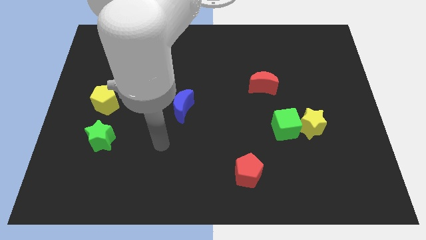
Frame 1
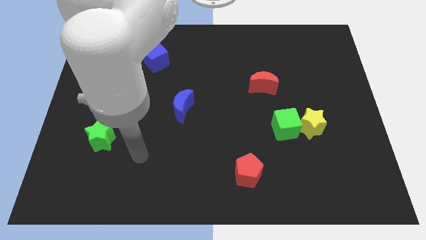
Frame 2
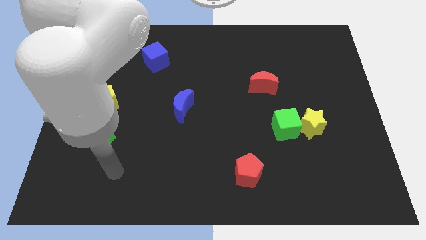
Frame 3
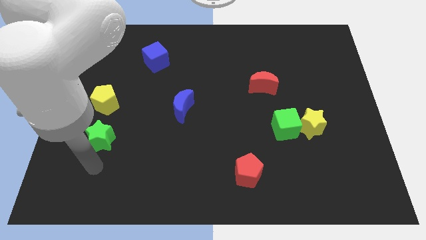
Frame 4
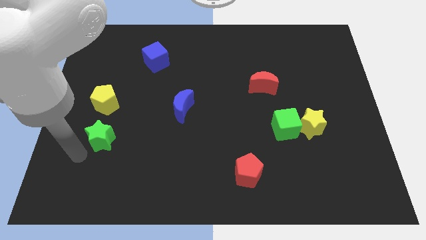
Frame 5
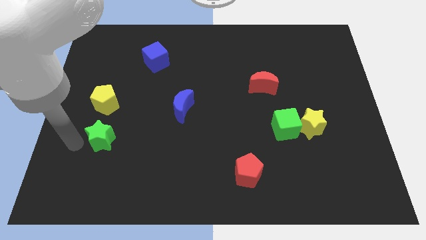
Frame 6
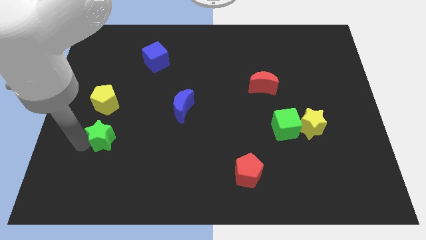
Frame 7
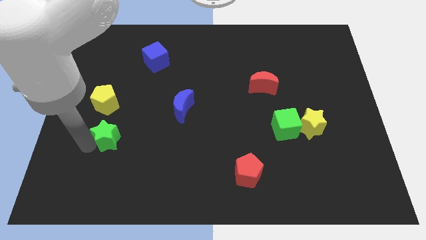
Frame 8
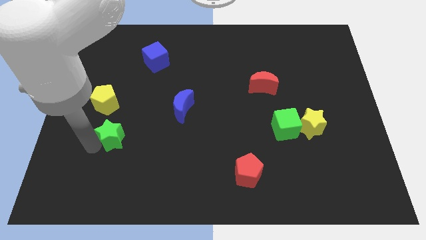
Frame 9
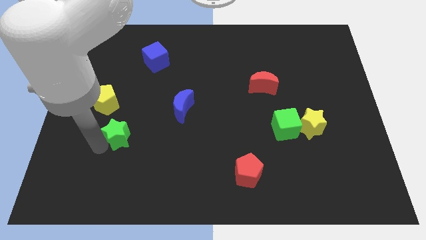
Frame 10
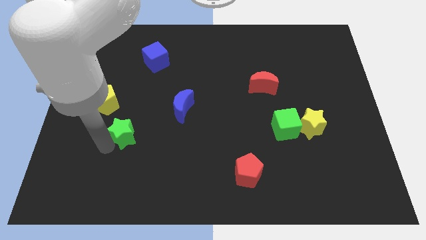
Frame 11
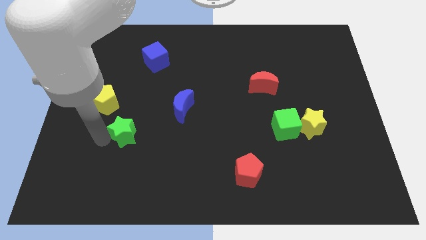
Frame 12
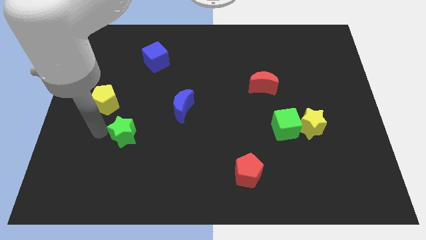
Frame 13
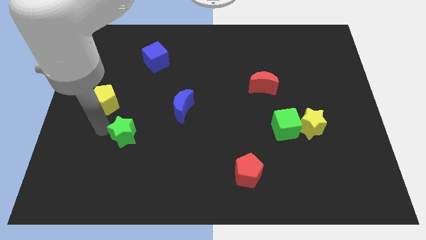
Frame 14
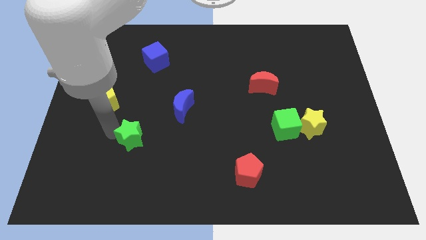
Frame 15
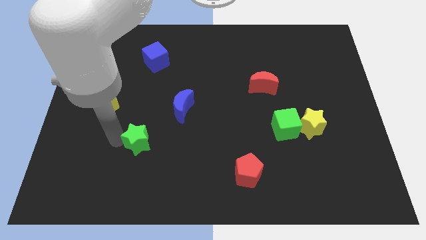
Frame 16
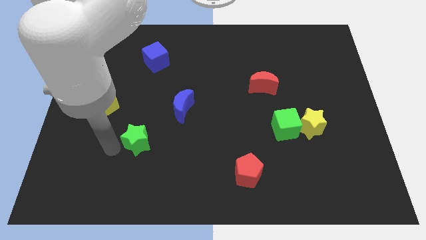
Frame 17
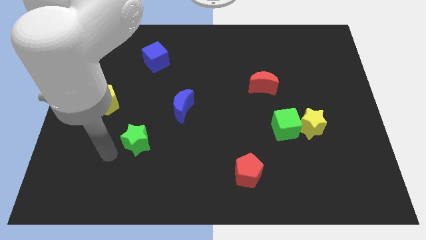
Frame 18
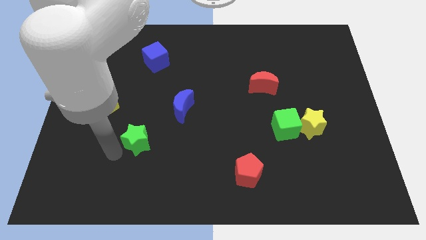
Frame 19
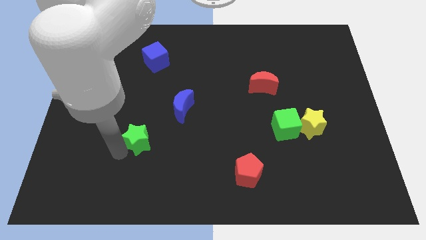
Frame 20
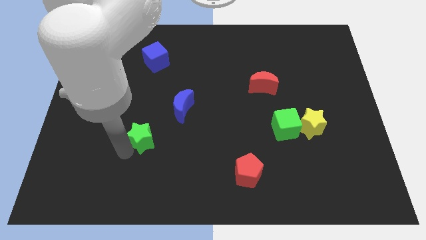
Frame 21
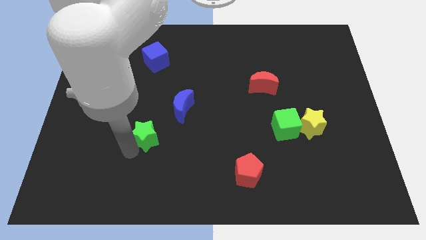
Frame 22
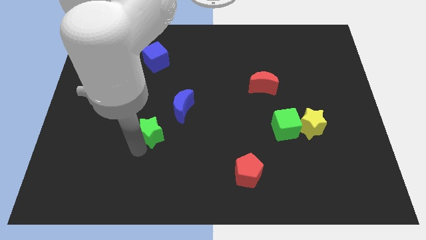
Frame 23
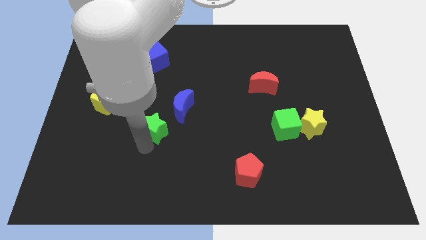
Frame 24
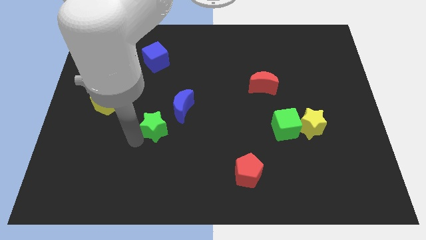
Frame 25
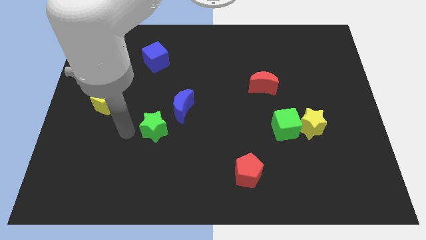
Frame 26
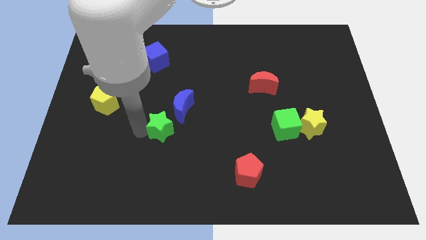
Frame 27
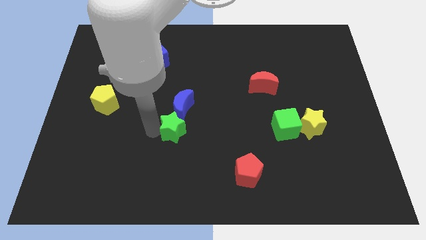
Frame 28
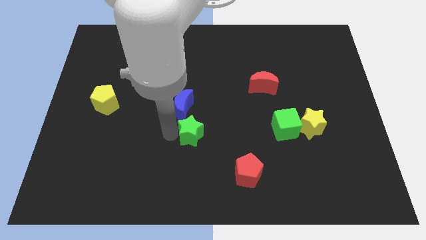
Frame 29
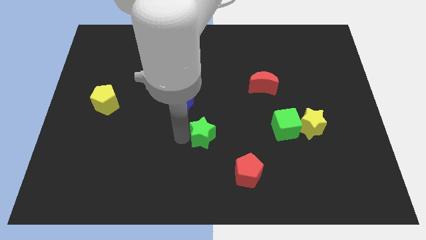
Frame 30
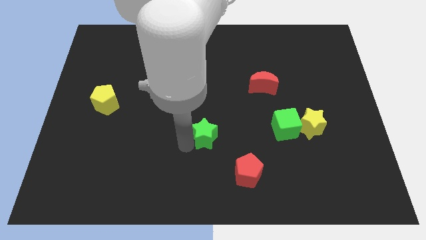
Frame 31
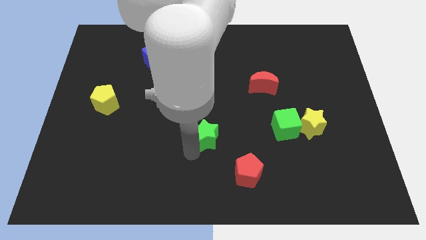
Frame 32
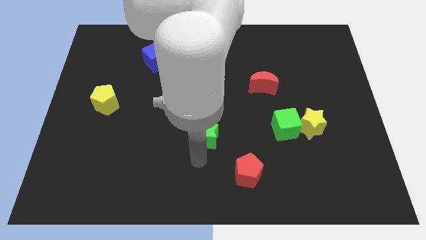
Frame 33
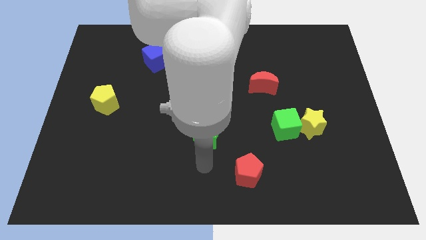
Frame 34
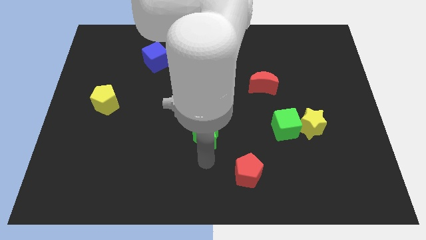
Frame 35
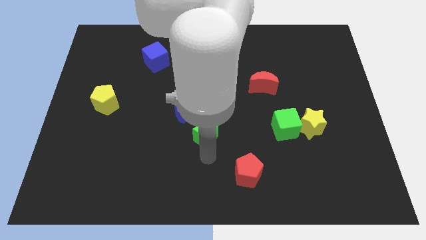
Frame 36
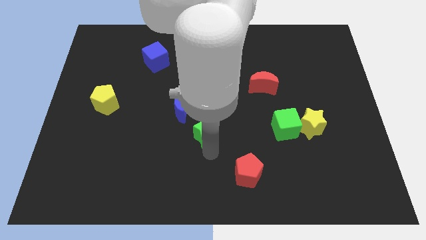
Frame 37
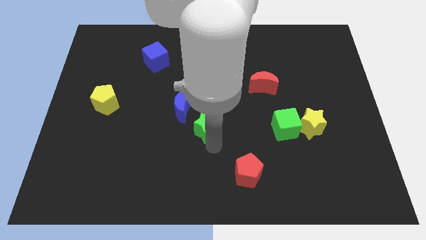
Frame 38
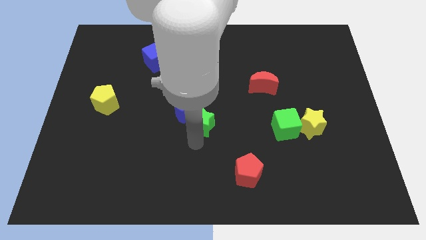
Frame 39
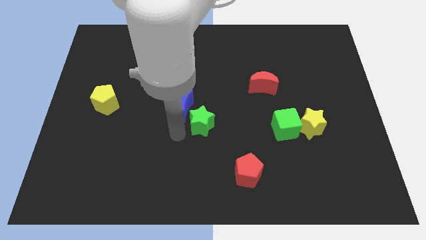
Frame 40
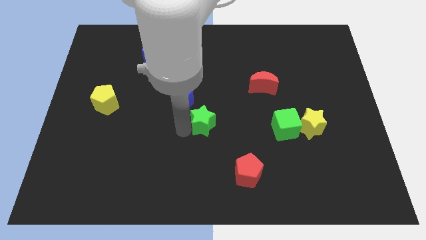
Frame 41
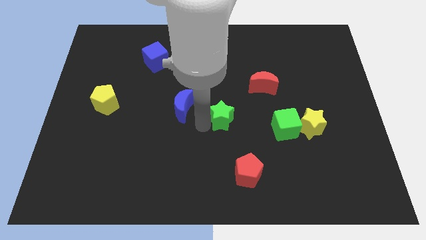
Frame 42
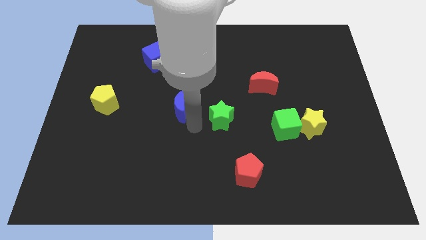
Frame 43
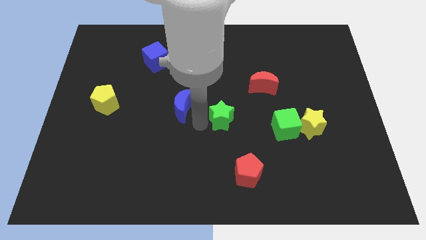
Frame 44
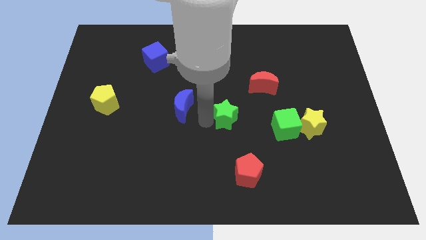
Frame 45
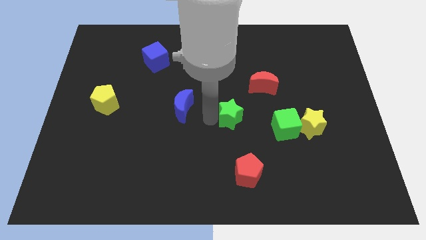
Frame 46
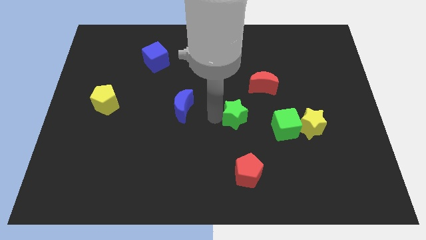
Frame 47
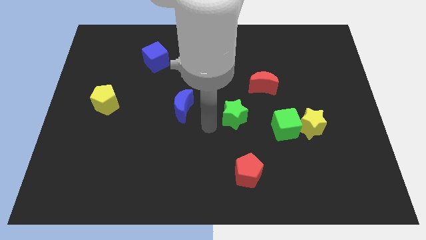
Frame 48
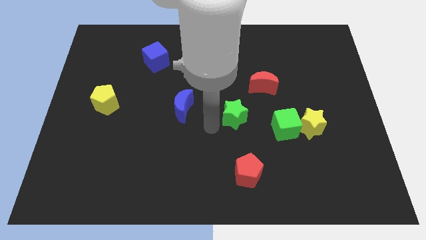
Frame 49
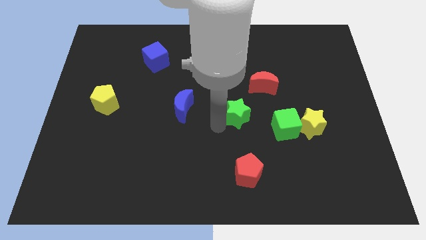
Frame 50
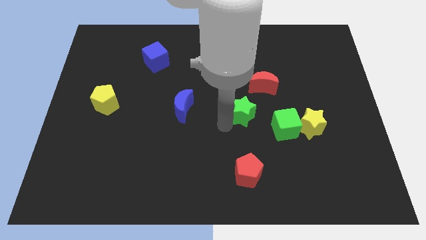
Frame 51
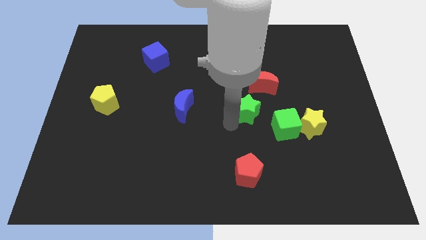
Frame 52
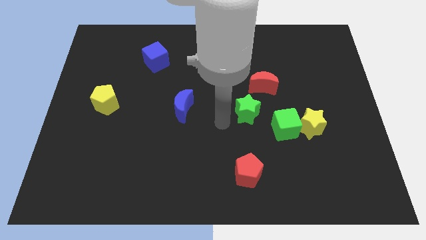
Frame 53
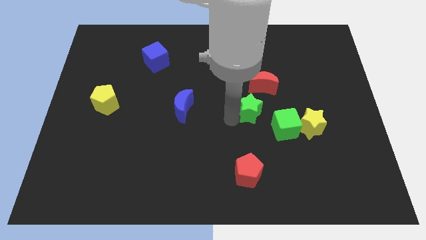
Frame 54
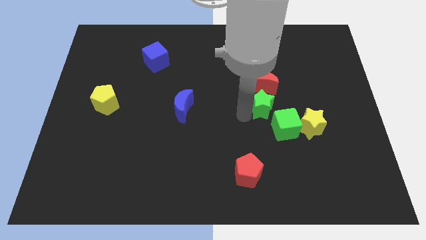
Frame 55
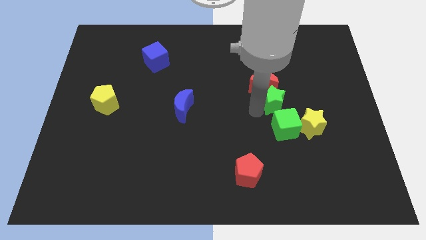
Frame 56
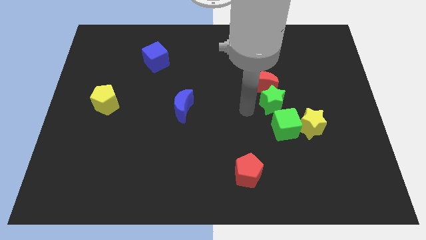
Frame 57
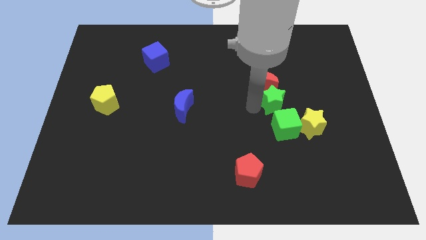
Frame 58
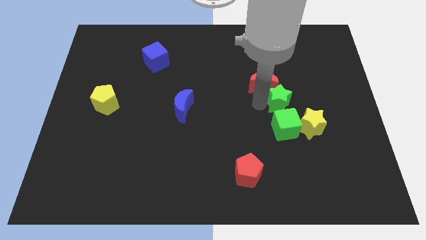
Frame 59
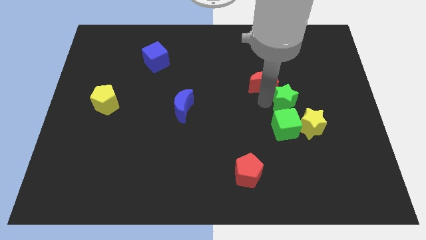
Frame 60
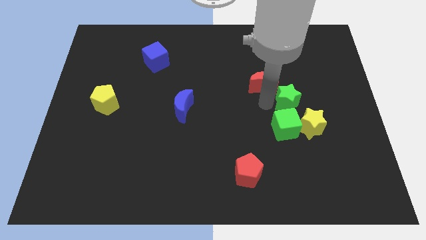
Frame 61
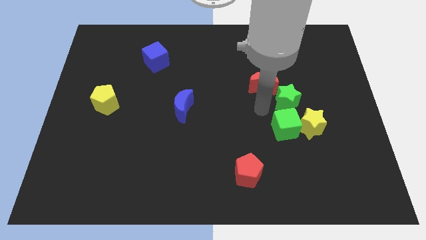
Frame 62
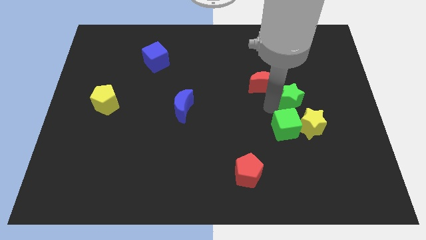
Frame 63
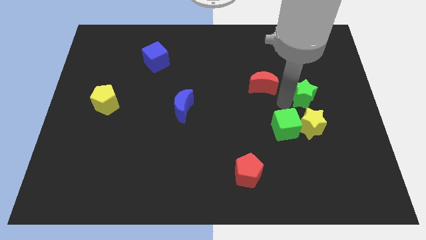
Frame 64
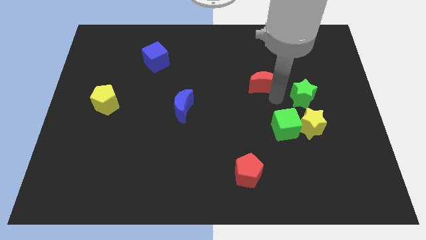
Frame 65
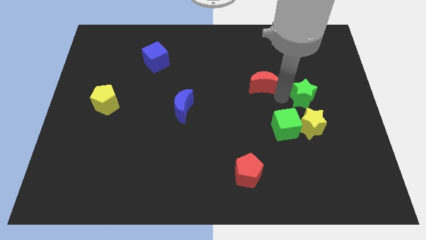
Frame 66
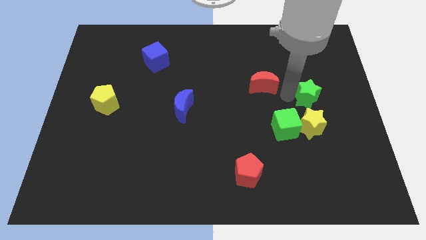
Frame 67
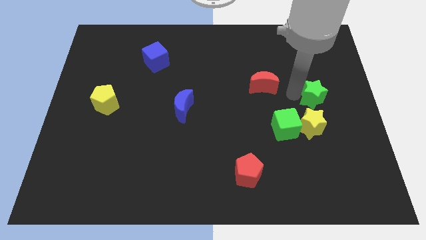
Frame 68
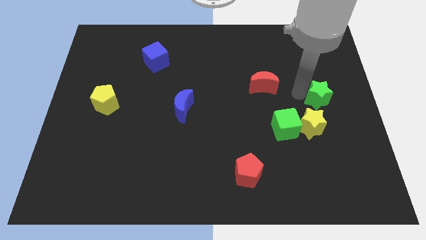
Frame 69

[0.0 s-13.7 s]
move the green star to the center right

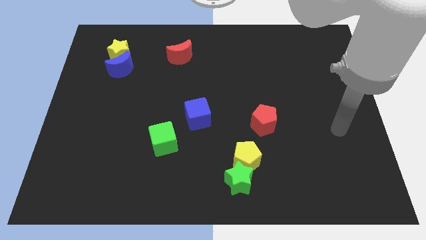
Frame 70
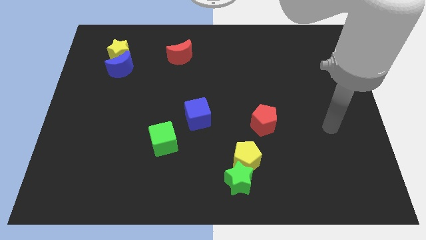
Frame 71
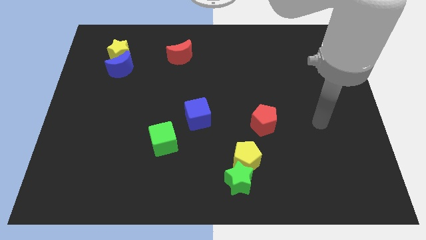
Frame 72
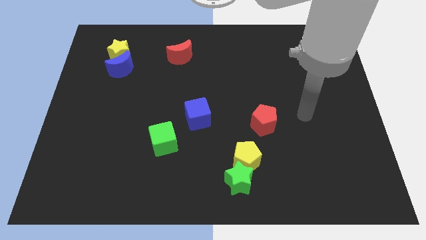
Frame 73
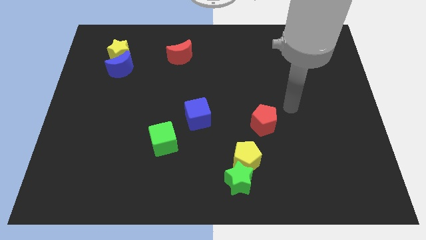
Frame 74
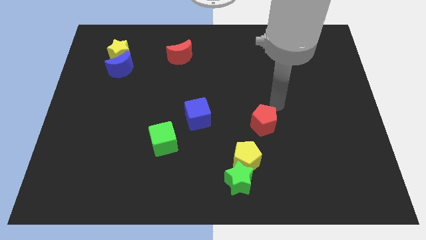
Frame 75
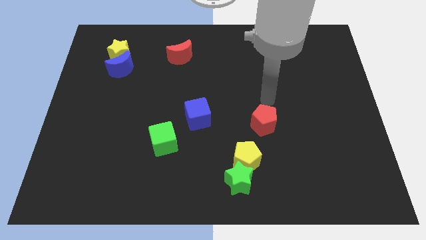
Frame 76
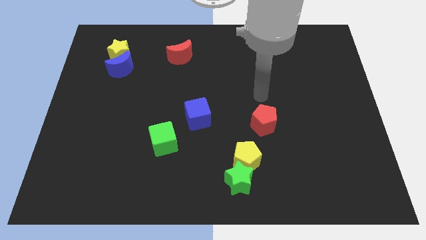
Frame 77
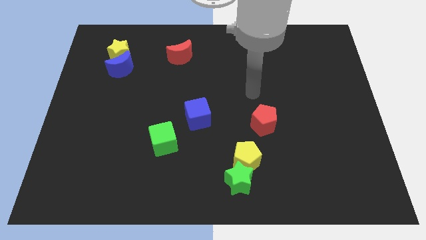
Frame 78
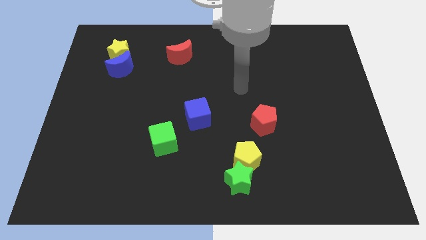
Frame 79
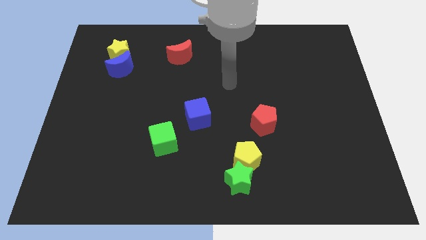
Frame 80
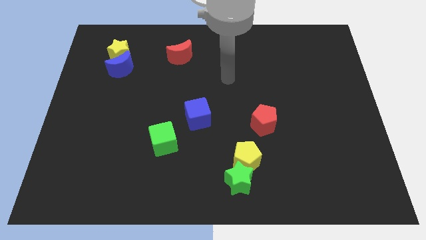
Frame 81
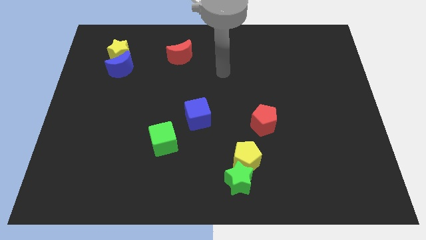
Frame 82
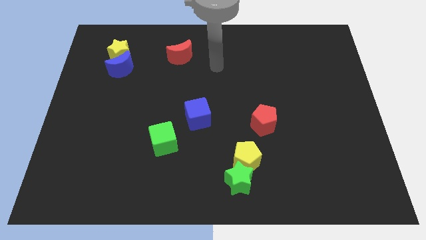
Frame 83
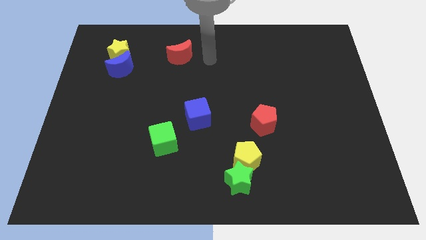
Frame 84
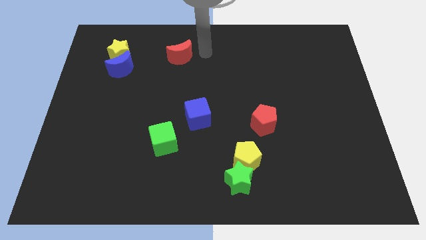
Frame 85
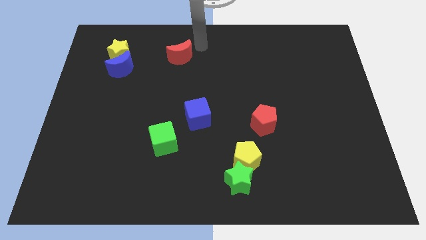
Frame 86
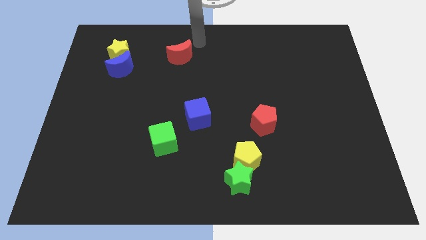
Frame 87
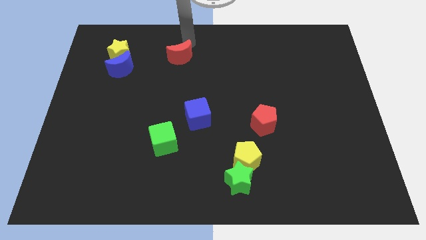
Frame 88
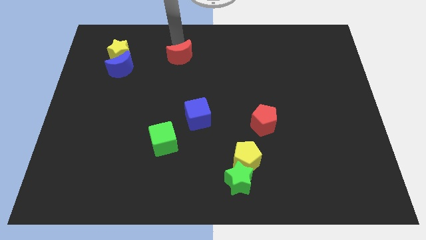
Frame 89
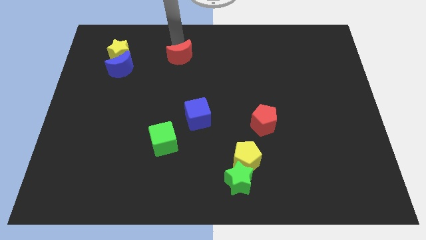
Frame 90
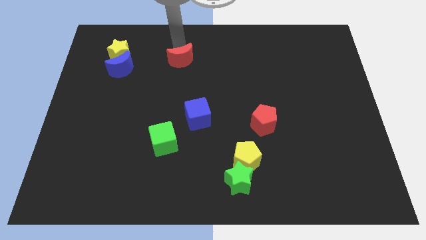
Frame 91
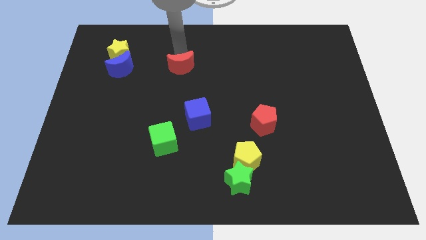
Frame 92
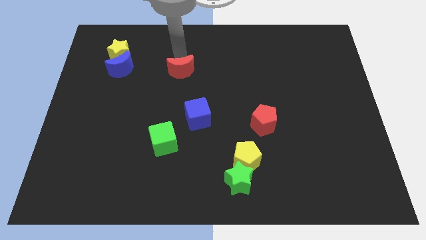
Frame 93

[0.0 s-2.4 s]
slide the red moon to the middle
